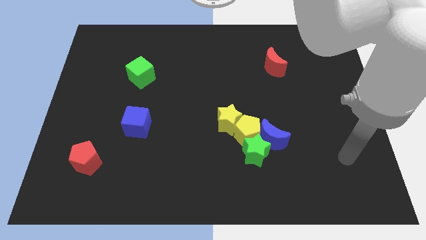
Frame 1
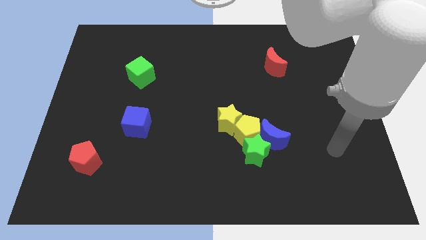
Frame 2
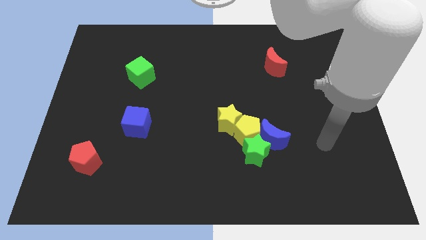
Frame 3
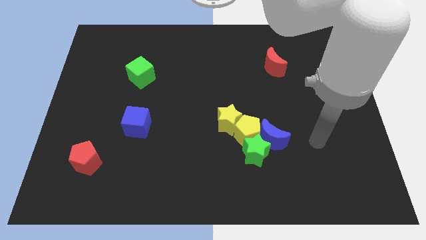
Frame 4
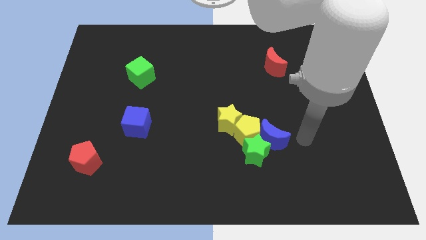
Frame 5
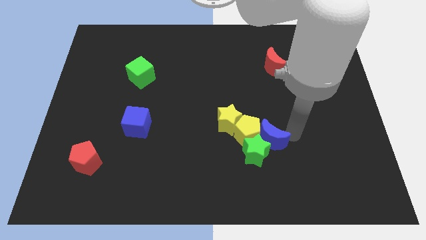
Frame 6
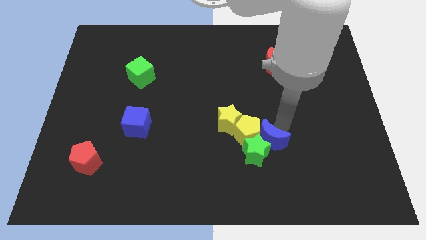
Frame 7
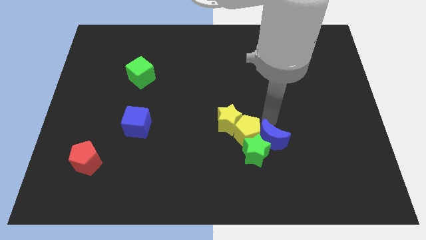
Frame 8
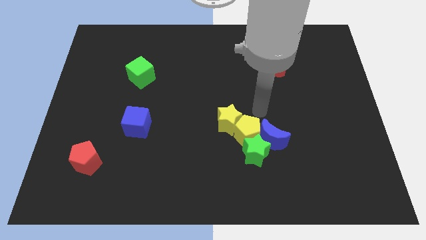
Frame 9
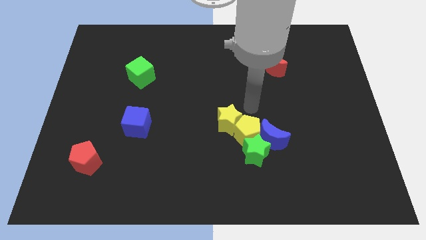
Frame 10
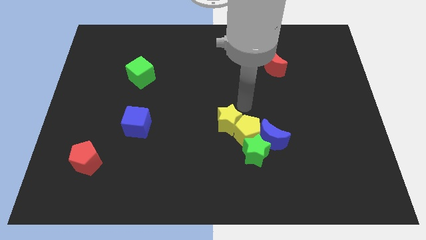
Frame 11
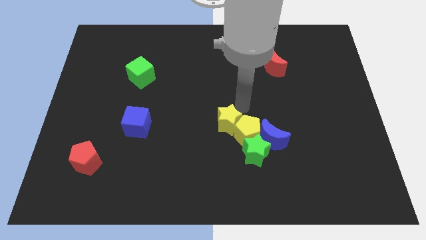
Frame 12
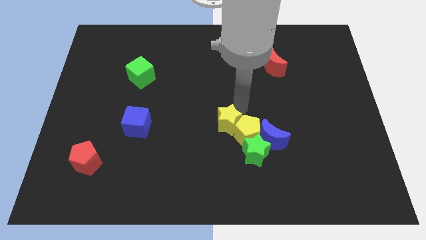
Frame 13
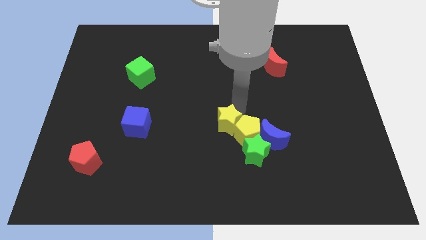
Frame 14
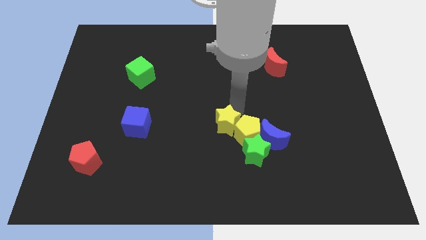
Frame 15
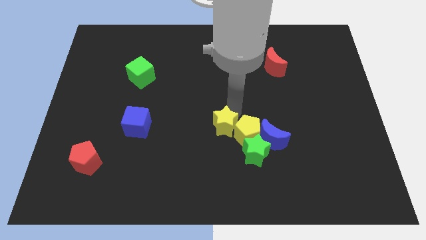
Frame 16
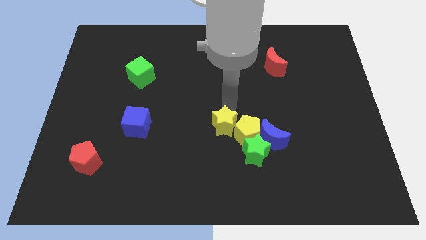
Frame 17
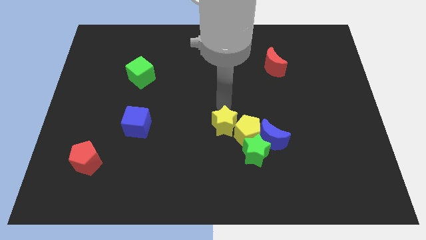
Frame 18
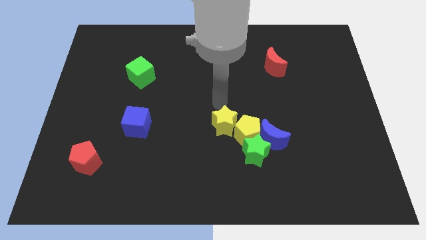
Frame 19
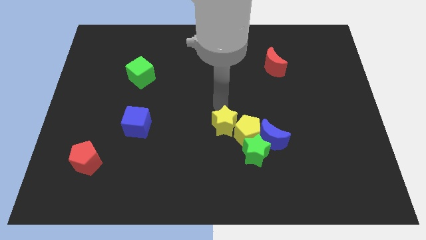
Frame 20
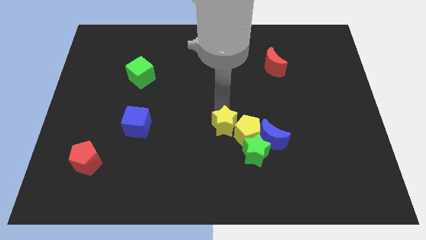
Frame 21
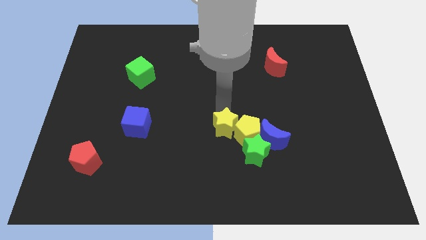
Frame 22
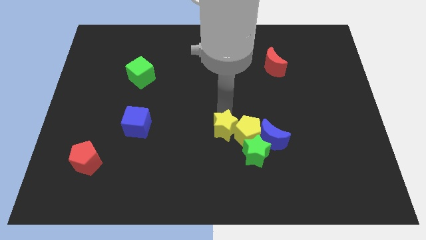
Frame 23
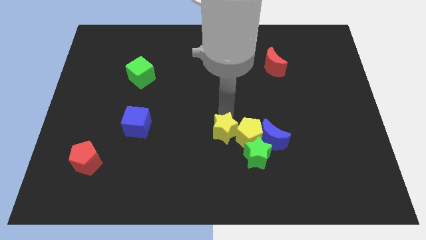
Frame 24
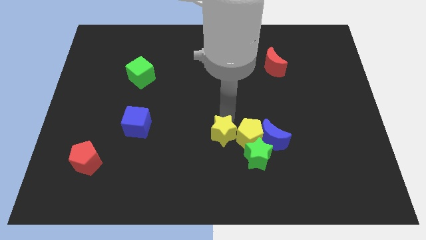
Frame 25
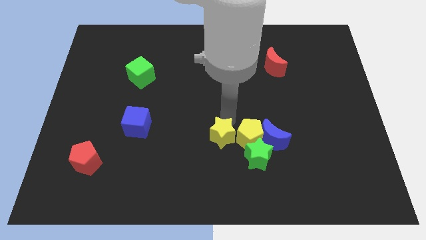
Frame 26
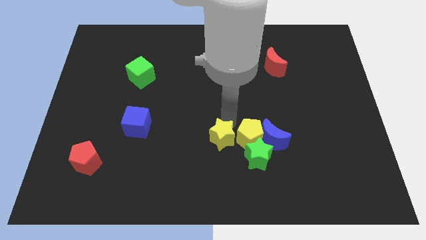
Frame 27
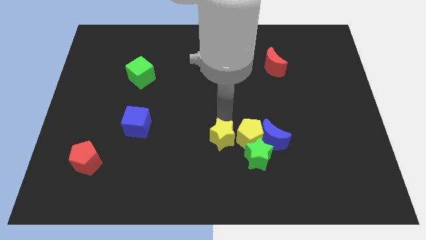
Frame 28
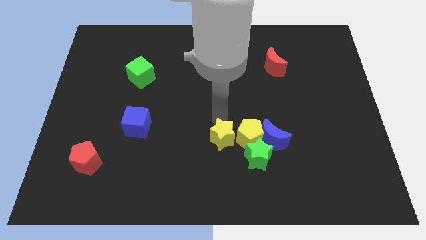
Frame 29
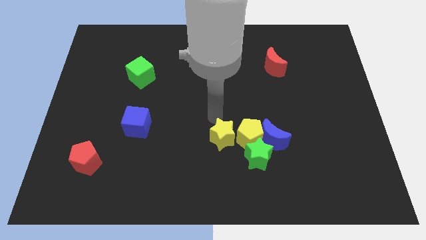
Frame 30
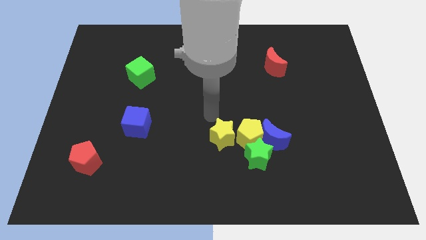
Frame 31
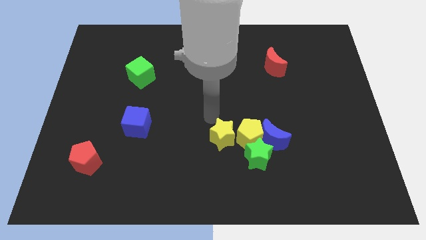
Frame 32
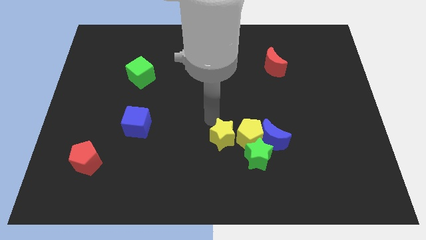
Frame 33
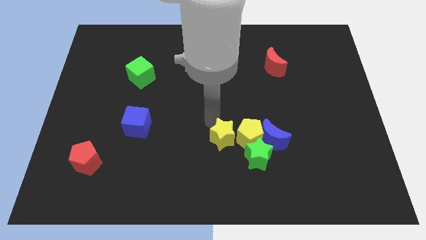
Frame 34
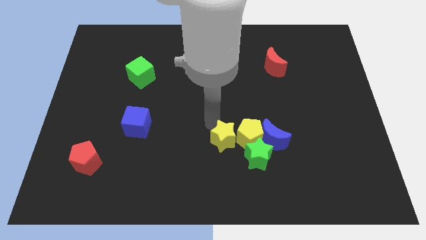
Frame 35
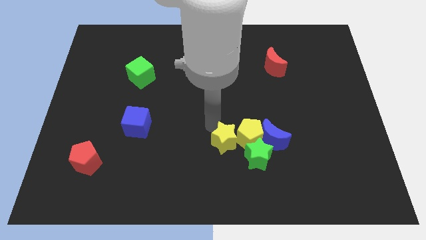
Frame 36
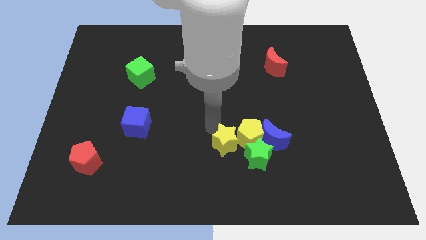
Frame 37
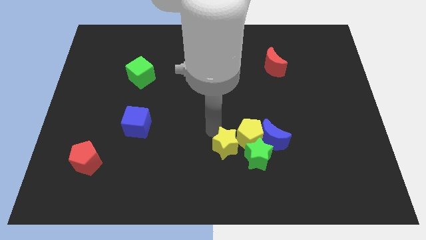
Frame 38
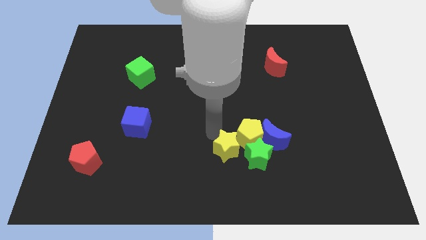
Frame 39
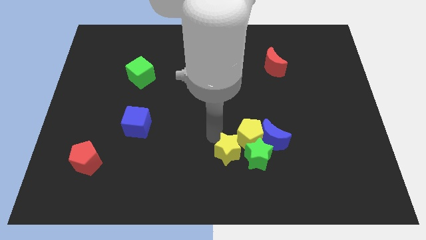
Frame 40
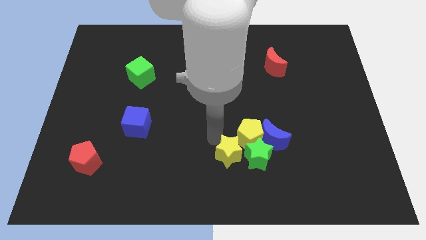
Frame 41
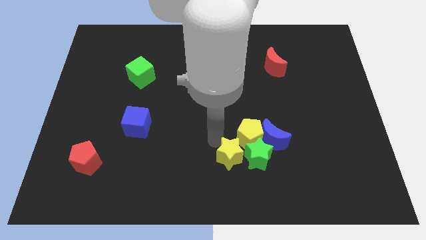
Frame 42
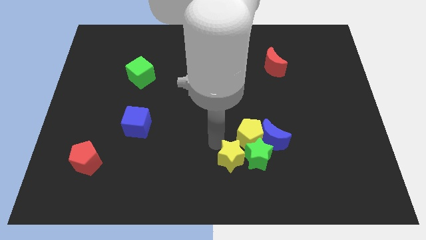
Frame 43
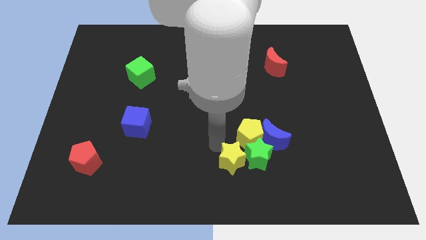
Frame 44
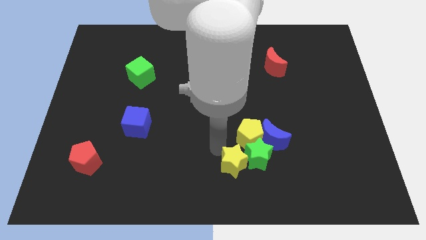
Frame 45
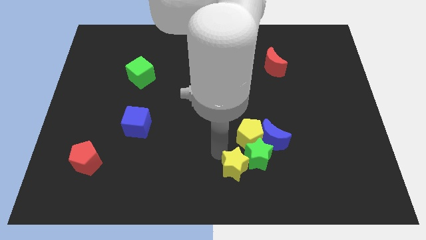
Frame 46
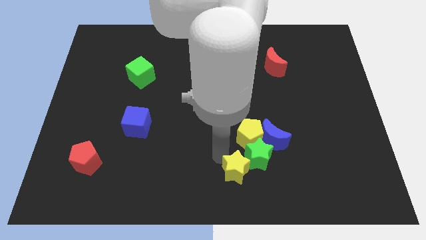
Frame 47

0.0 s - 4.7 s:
slightly move the yellow star diagonally down and right

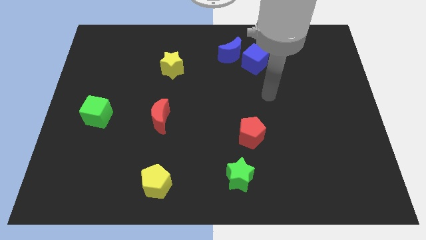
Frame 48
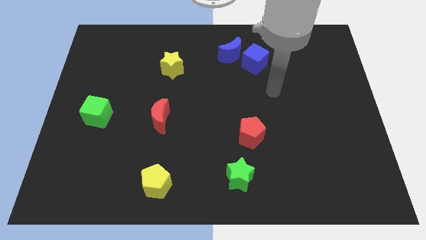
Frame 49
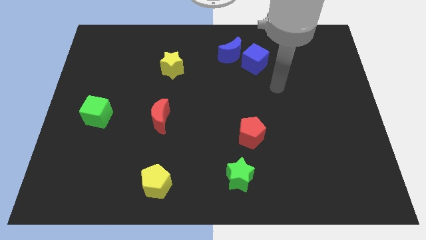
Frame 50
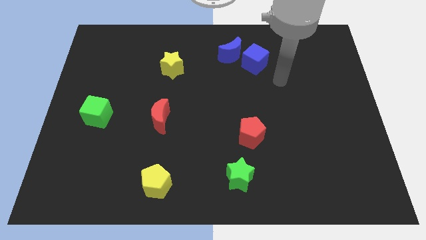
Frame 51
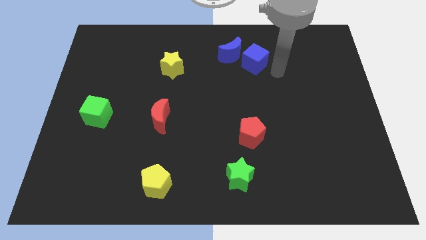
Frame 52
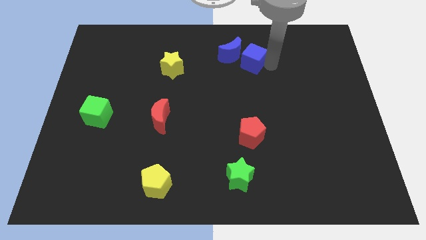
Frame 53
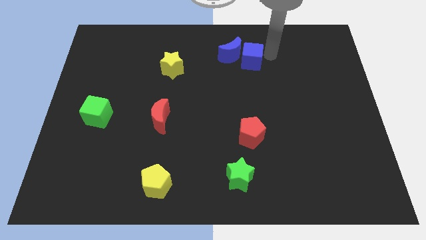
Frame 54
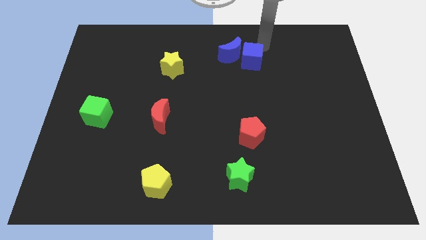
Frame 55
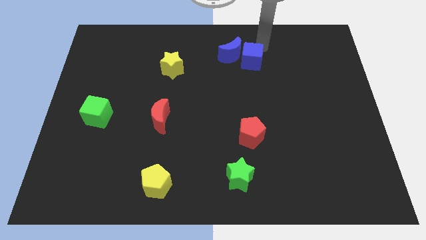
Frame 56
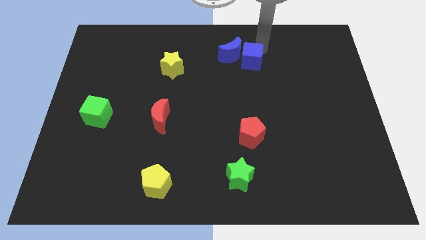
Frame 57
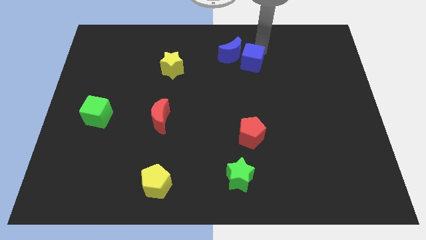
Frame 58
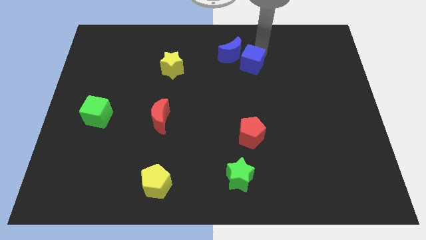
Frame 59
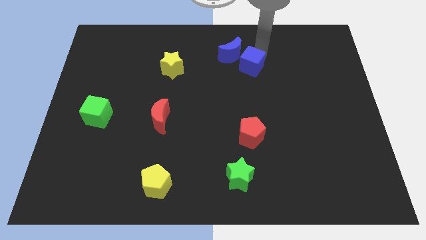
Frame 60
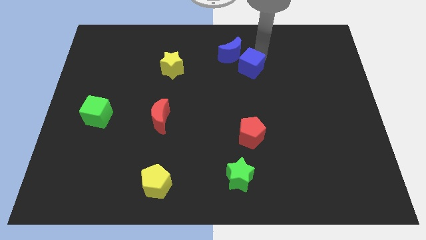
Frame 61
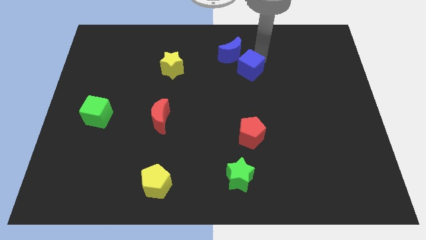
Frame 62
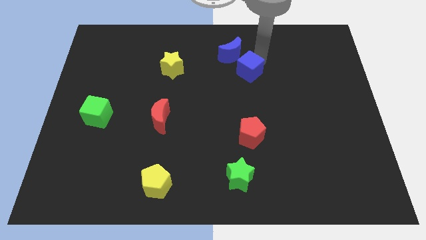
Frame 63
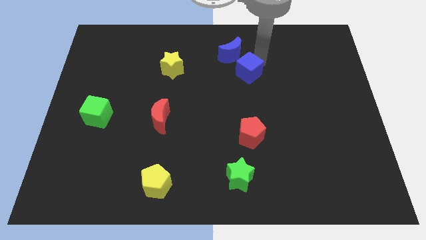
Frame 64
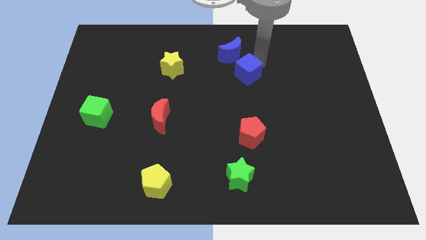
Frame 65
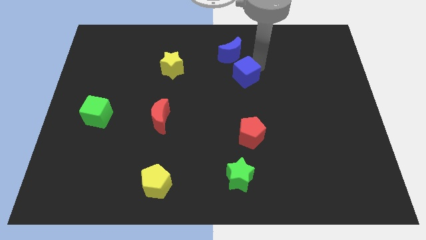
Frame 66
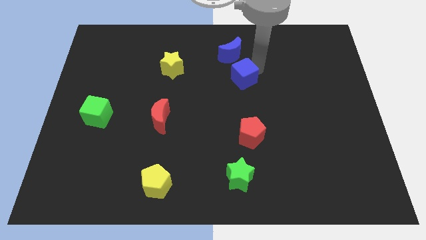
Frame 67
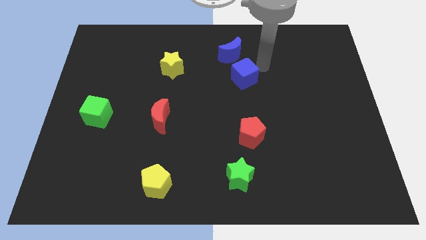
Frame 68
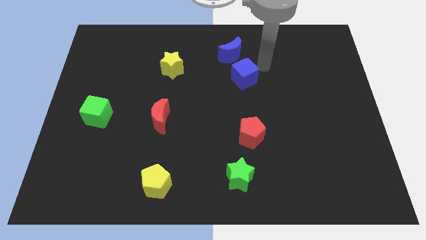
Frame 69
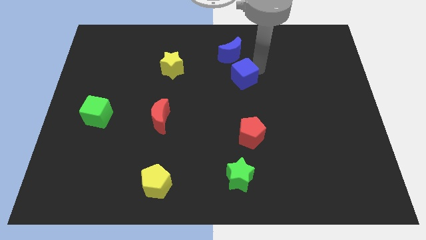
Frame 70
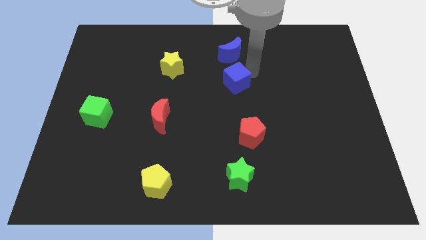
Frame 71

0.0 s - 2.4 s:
slightly move the blue cube down and then to the left

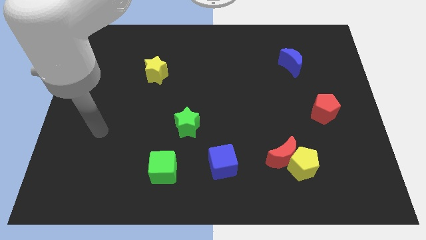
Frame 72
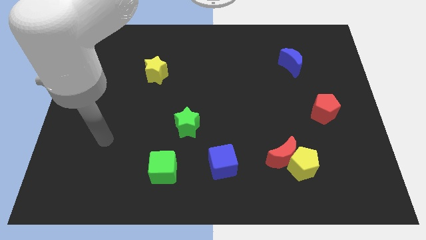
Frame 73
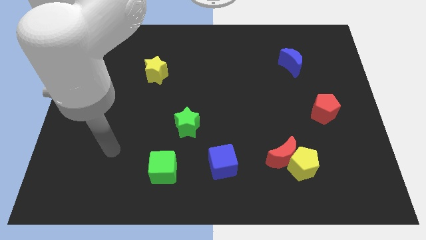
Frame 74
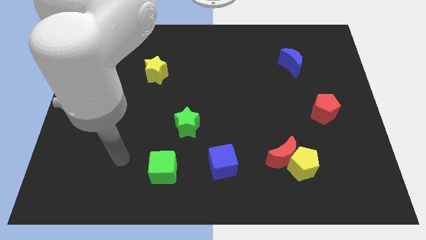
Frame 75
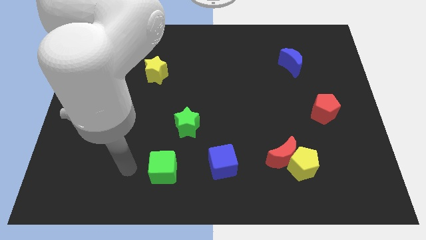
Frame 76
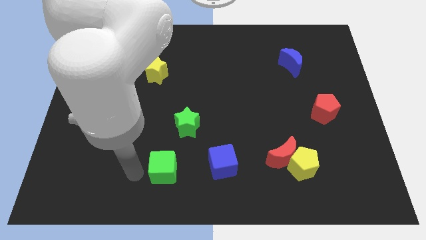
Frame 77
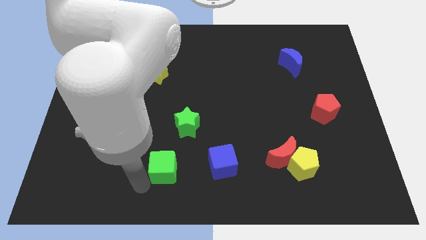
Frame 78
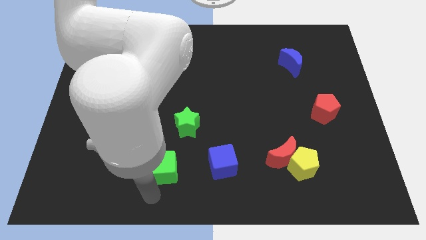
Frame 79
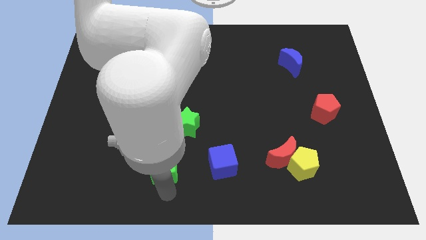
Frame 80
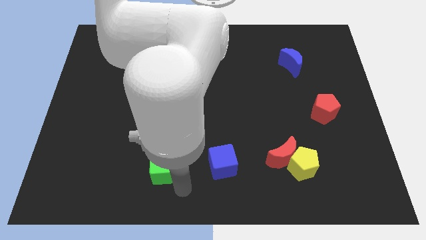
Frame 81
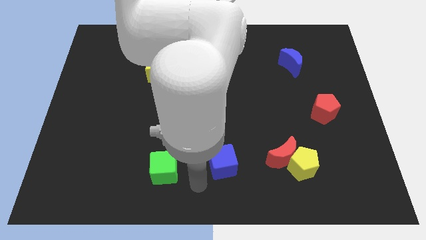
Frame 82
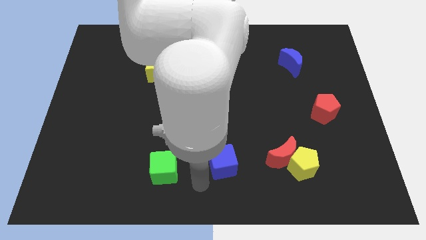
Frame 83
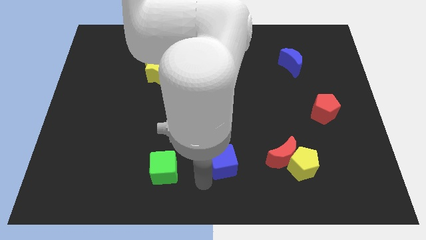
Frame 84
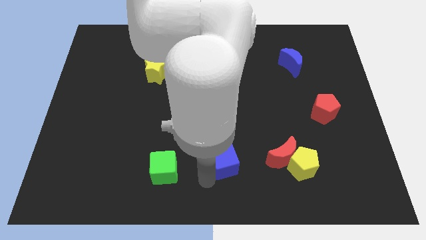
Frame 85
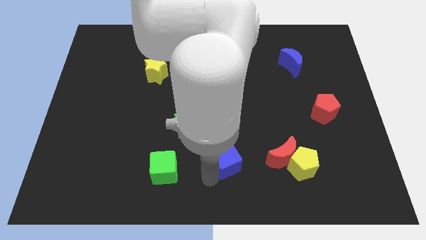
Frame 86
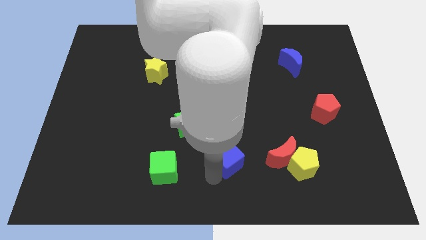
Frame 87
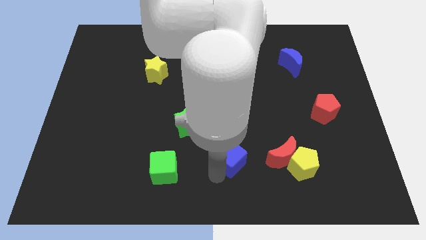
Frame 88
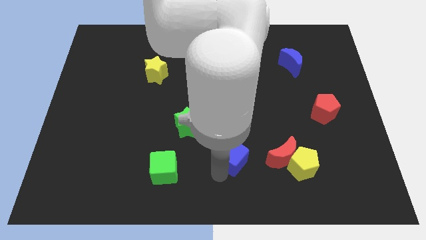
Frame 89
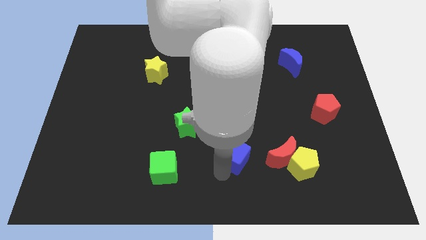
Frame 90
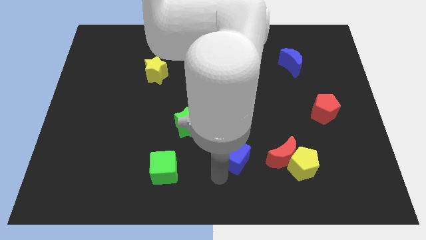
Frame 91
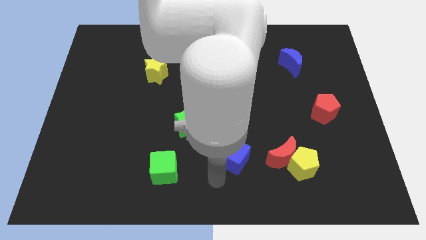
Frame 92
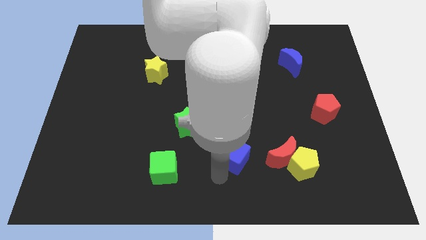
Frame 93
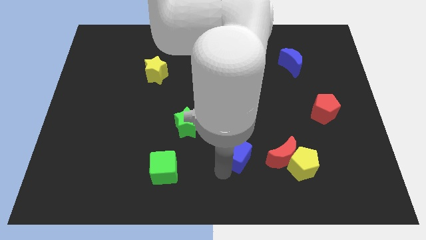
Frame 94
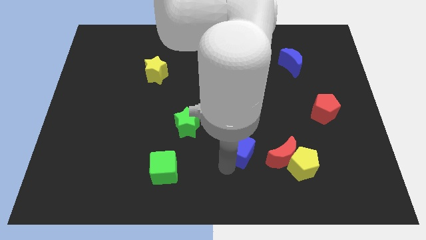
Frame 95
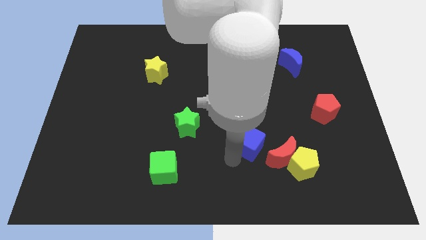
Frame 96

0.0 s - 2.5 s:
move the blue cube upwards and right a little bit
